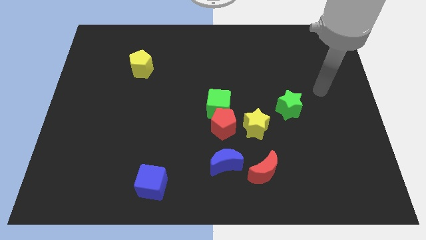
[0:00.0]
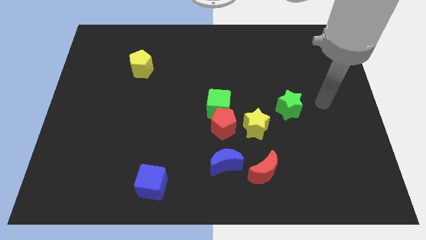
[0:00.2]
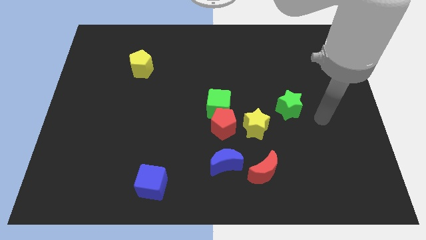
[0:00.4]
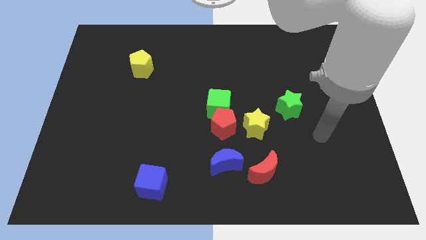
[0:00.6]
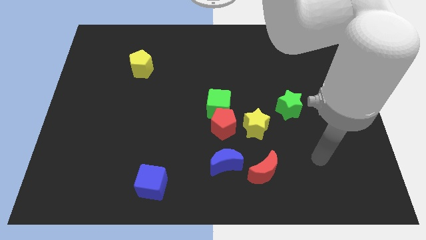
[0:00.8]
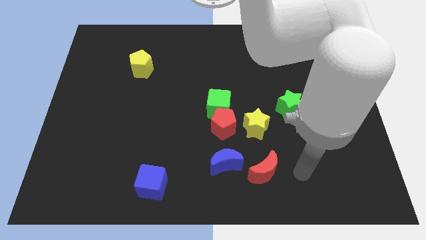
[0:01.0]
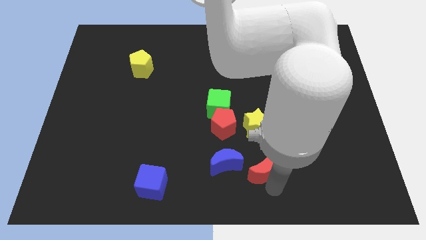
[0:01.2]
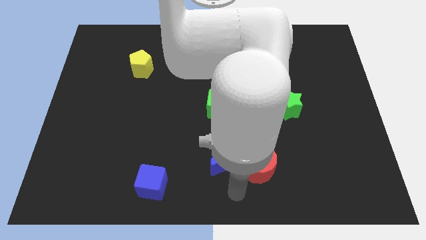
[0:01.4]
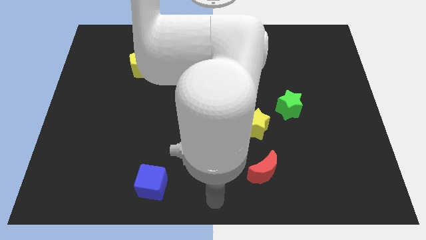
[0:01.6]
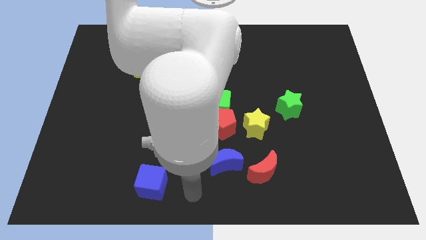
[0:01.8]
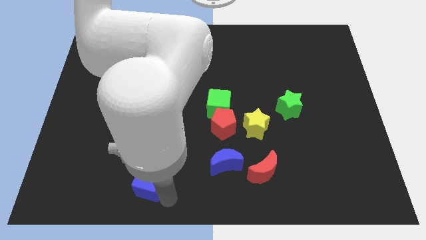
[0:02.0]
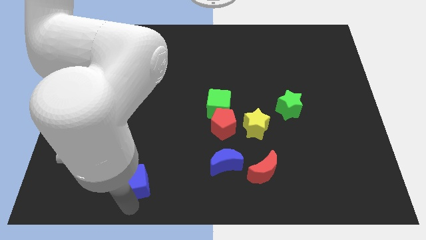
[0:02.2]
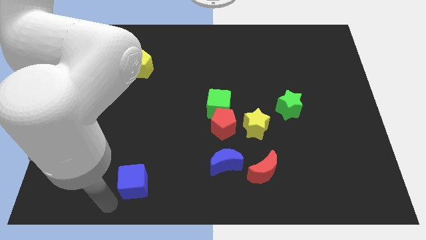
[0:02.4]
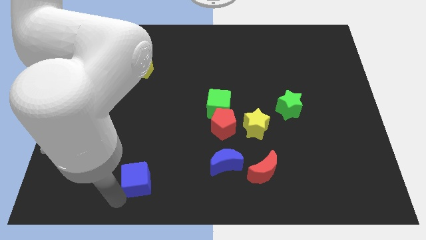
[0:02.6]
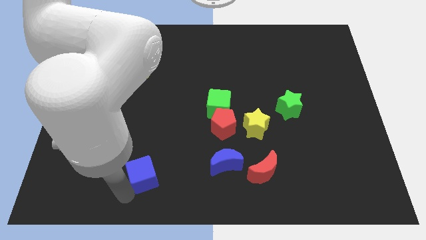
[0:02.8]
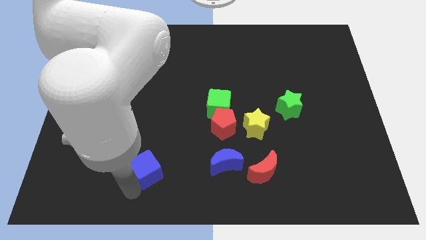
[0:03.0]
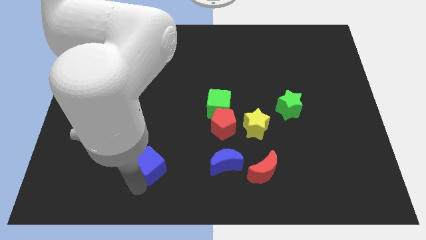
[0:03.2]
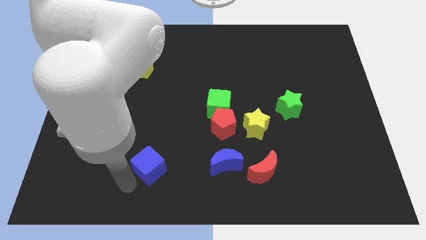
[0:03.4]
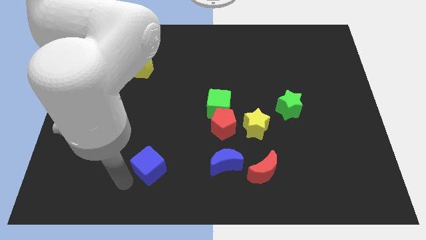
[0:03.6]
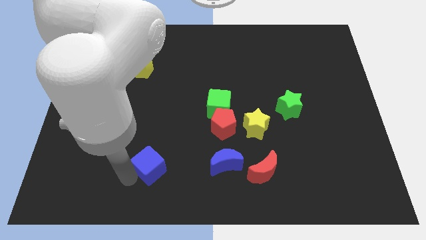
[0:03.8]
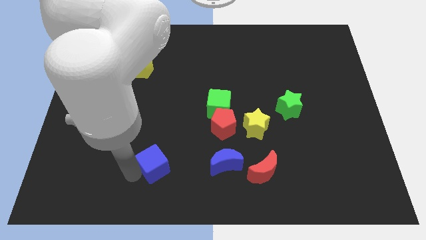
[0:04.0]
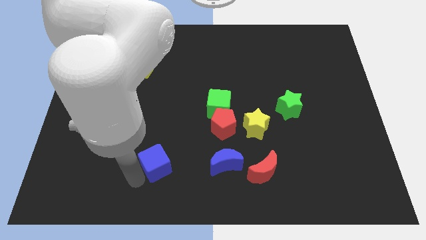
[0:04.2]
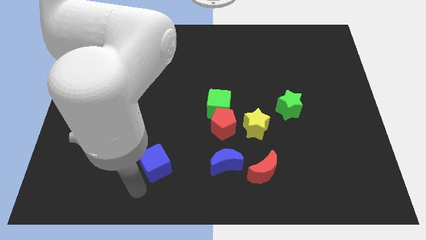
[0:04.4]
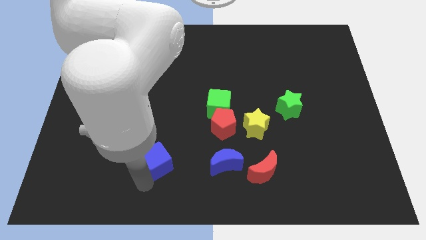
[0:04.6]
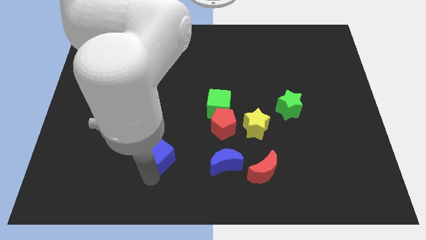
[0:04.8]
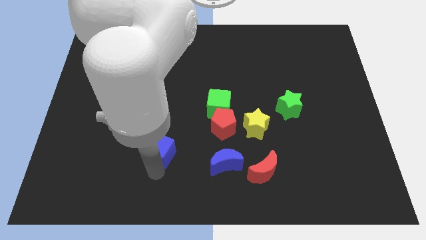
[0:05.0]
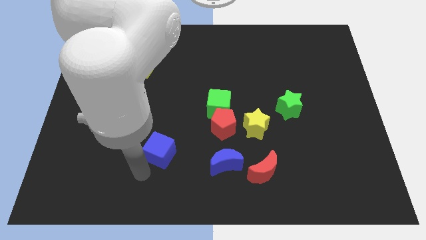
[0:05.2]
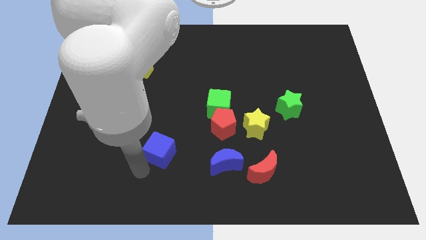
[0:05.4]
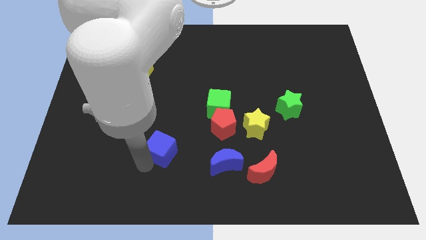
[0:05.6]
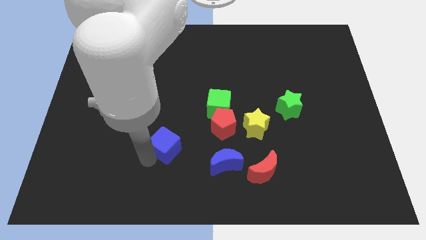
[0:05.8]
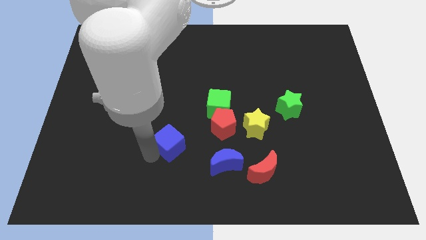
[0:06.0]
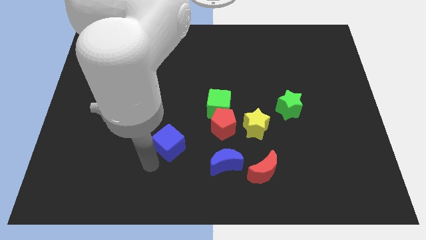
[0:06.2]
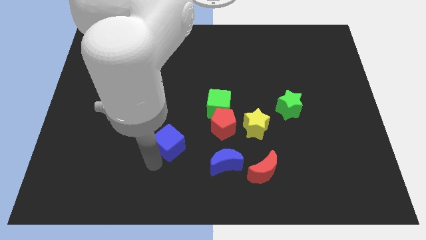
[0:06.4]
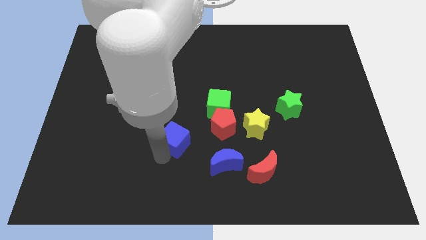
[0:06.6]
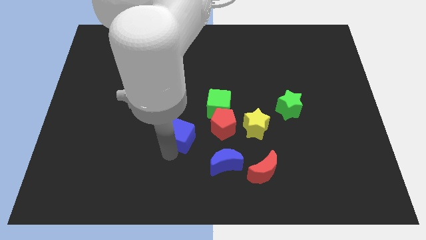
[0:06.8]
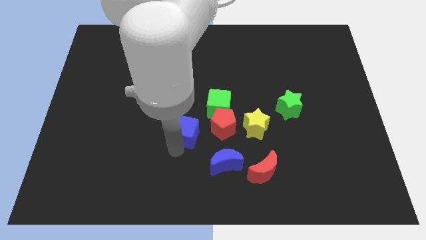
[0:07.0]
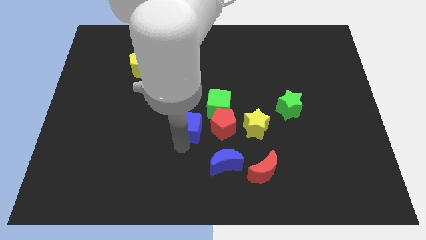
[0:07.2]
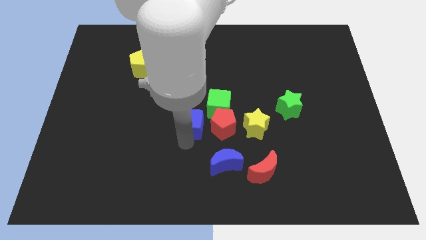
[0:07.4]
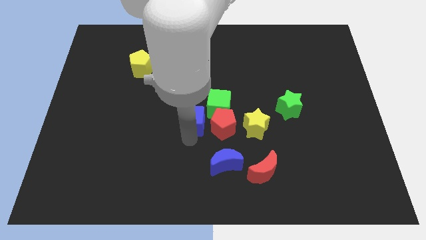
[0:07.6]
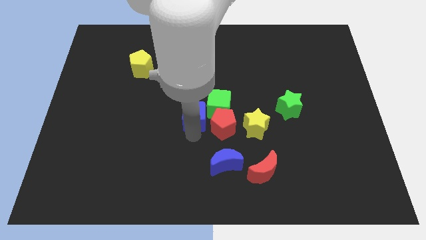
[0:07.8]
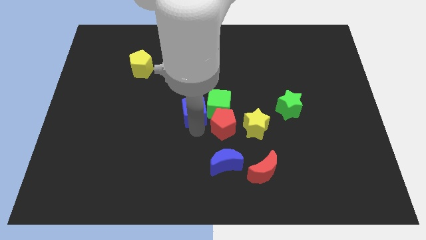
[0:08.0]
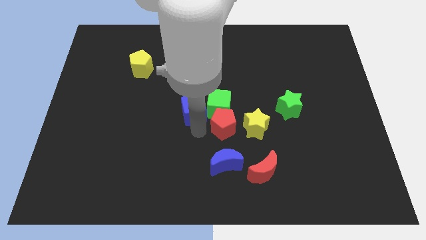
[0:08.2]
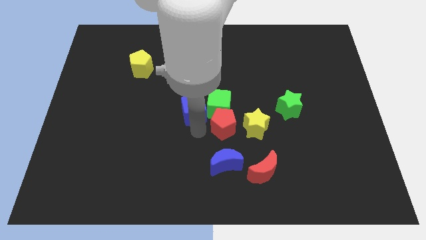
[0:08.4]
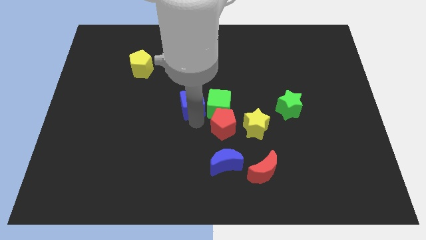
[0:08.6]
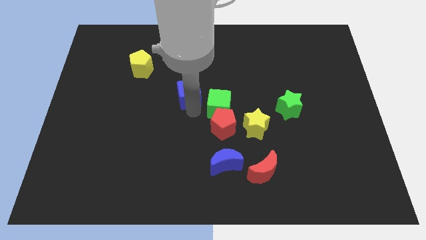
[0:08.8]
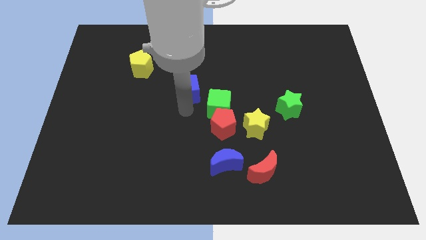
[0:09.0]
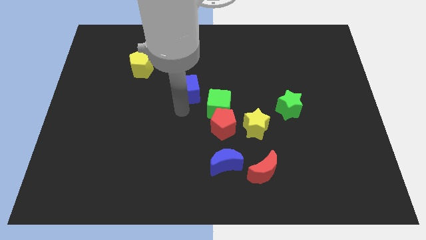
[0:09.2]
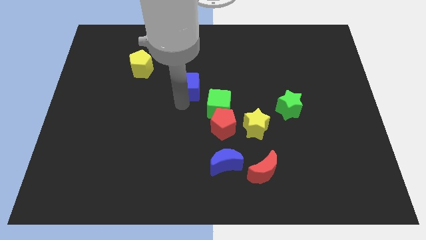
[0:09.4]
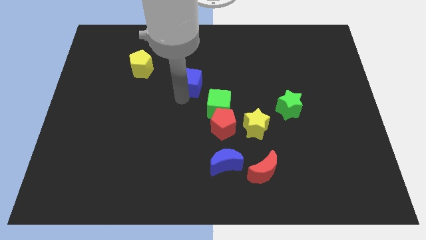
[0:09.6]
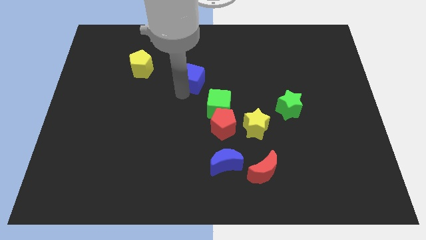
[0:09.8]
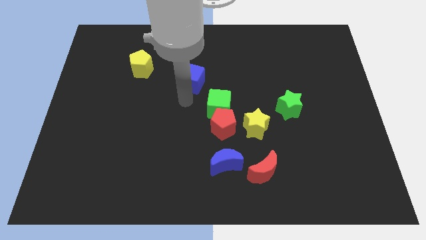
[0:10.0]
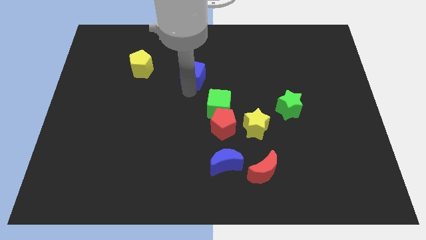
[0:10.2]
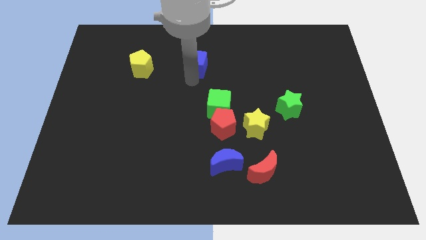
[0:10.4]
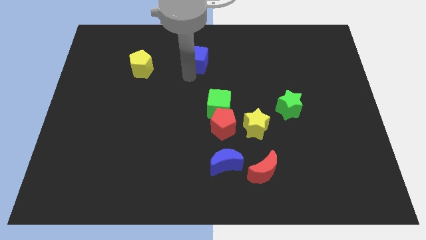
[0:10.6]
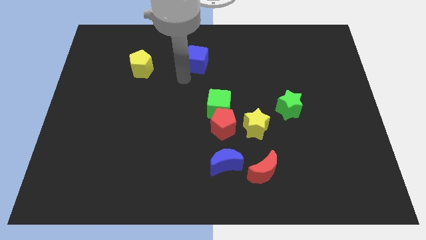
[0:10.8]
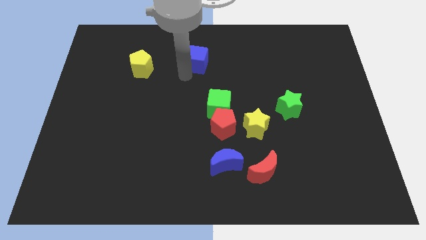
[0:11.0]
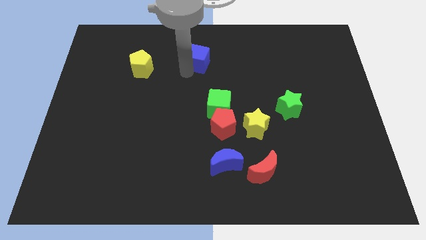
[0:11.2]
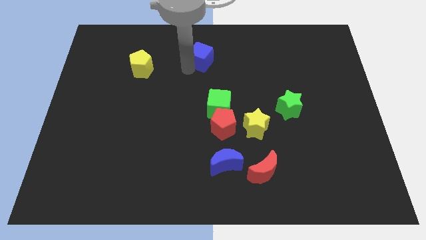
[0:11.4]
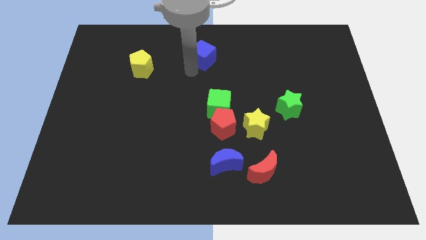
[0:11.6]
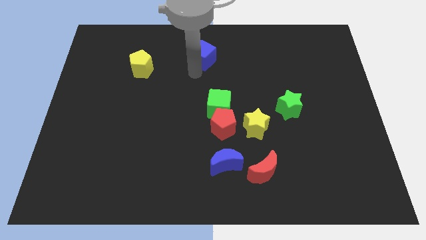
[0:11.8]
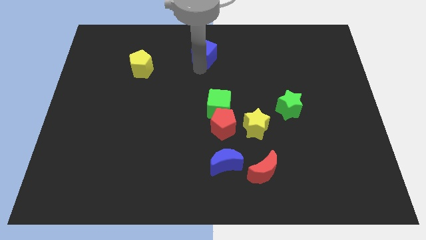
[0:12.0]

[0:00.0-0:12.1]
push the blue cube to the towards your base
